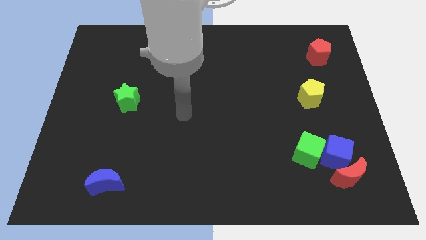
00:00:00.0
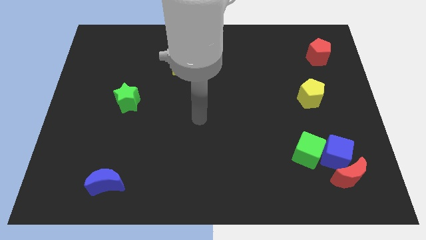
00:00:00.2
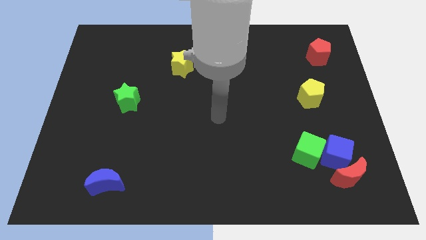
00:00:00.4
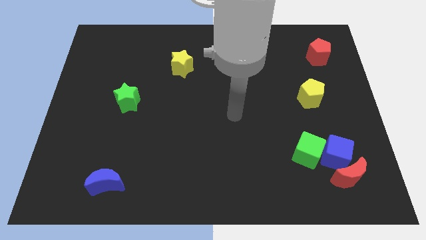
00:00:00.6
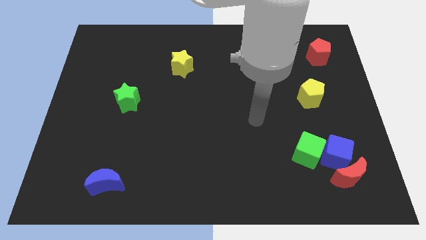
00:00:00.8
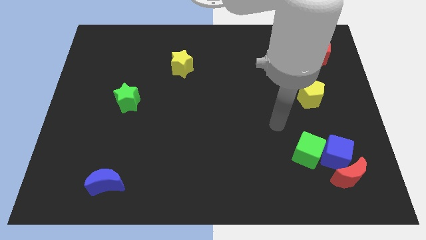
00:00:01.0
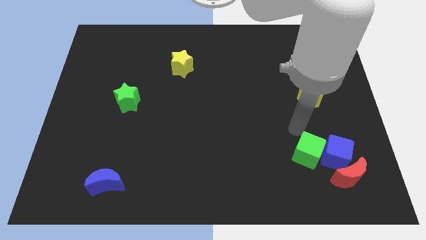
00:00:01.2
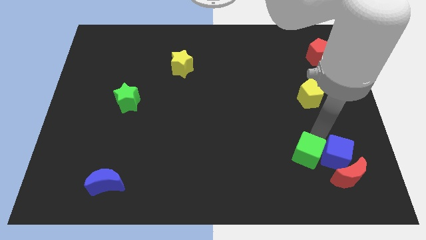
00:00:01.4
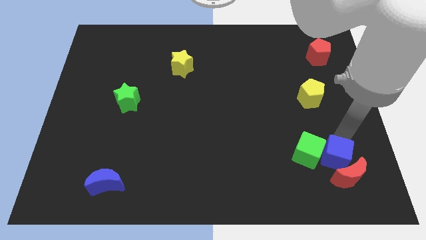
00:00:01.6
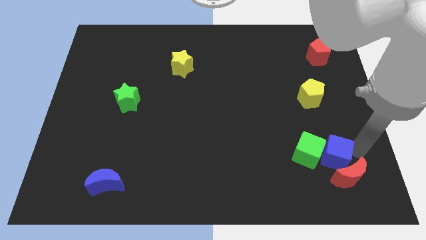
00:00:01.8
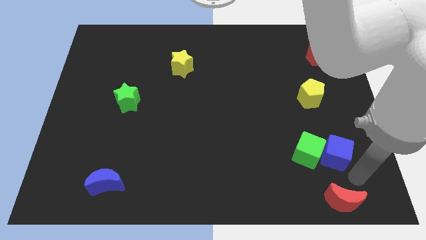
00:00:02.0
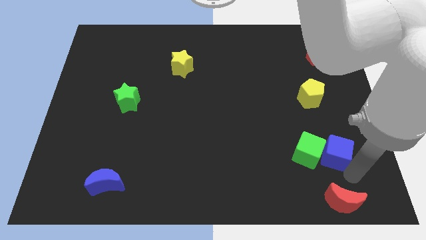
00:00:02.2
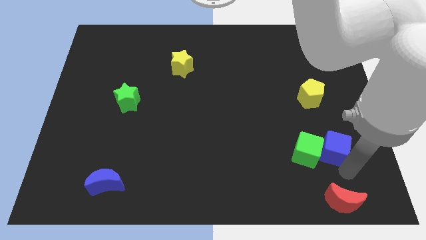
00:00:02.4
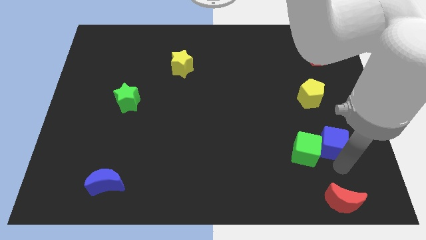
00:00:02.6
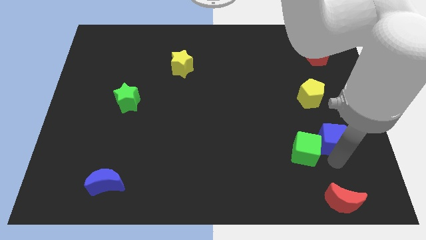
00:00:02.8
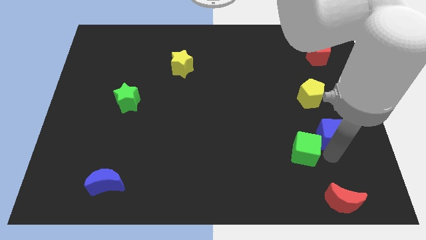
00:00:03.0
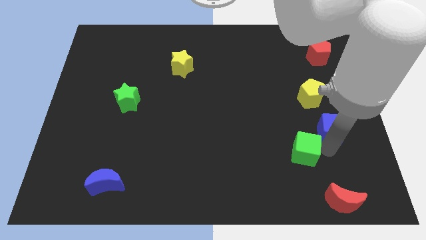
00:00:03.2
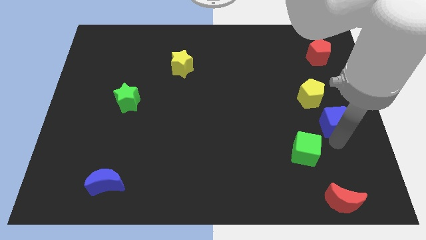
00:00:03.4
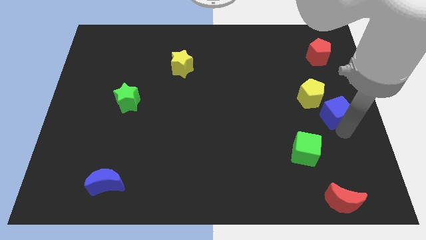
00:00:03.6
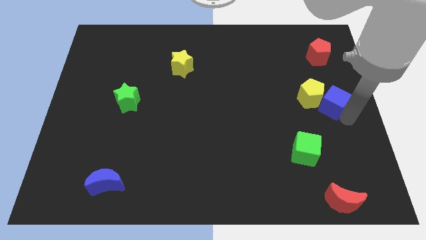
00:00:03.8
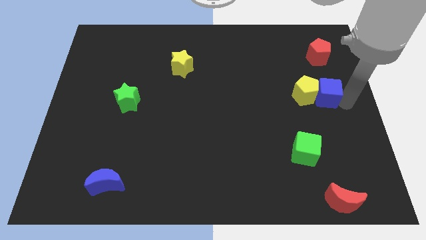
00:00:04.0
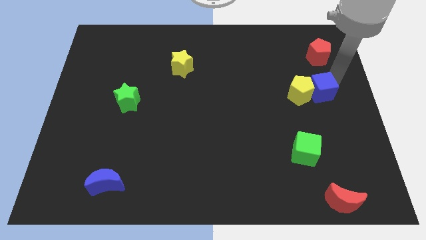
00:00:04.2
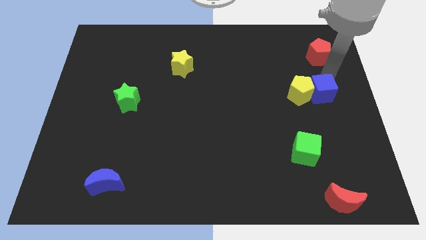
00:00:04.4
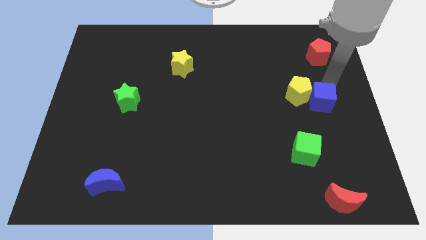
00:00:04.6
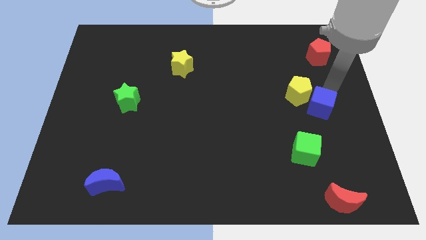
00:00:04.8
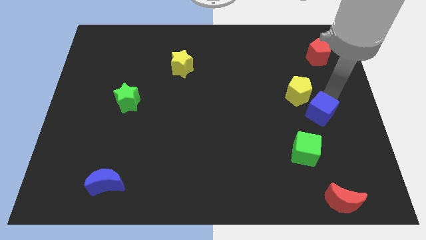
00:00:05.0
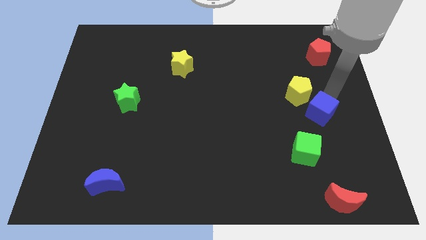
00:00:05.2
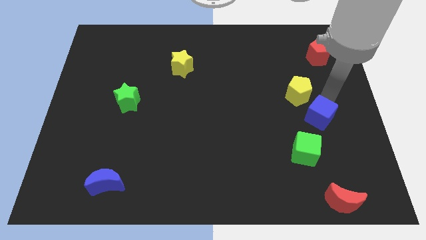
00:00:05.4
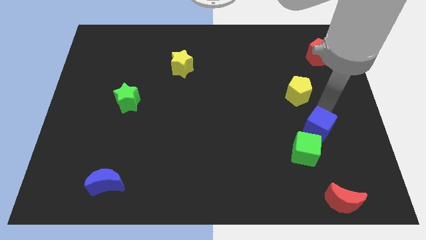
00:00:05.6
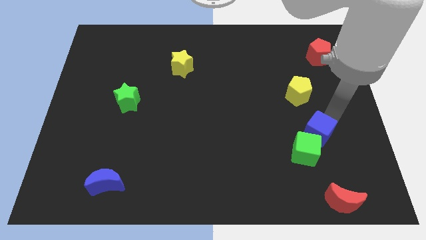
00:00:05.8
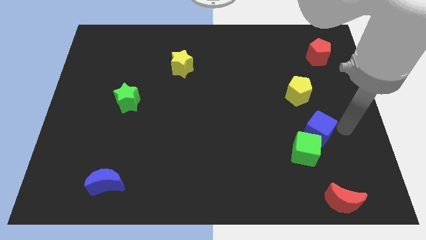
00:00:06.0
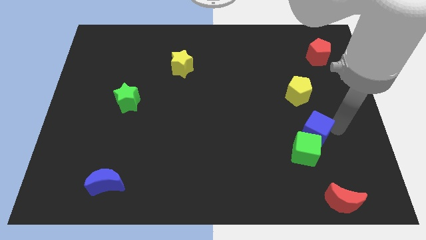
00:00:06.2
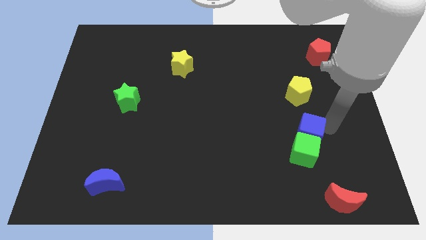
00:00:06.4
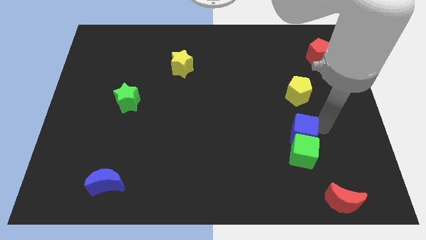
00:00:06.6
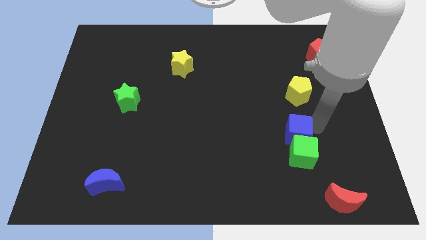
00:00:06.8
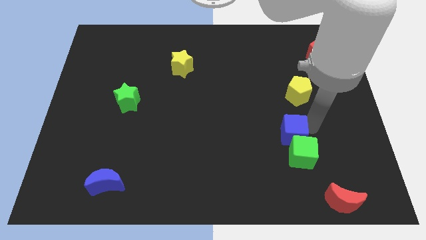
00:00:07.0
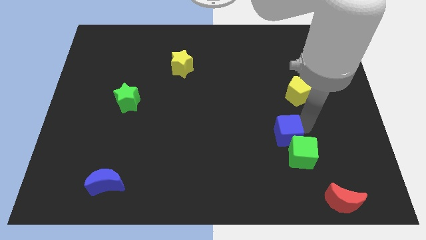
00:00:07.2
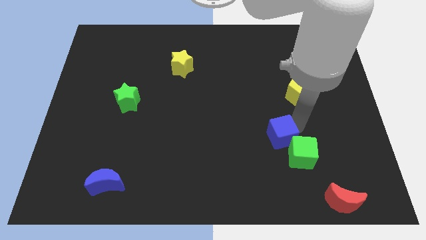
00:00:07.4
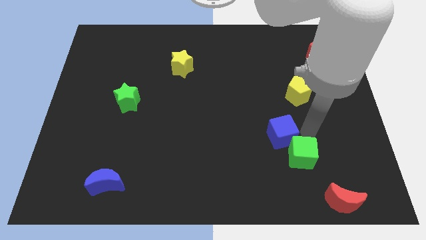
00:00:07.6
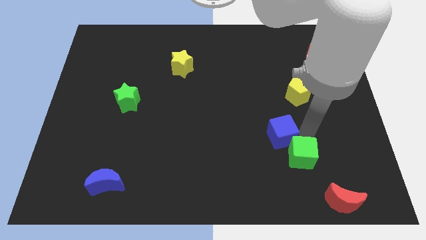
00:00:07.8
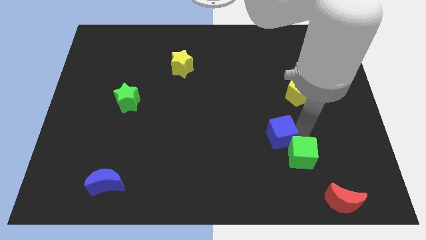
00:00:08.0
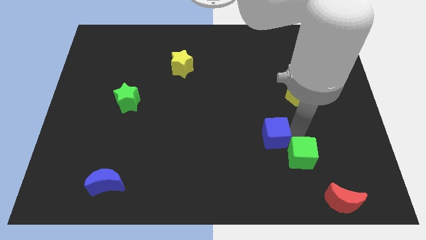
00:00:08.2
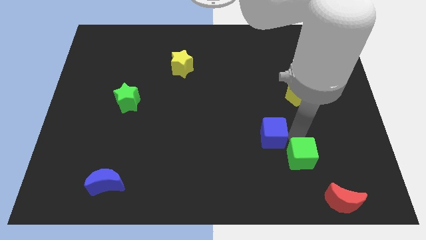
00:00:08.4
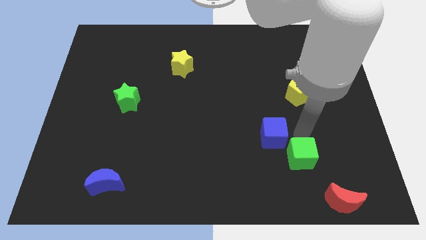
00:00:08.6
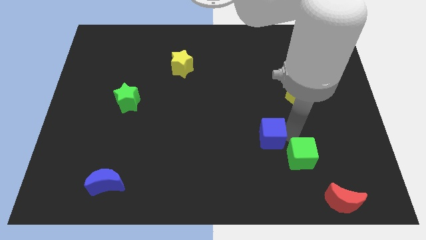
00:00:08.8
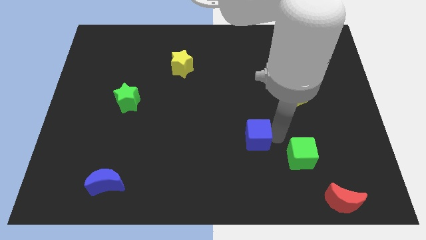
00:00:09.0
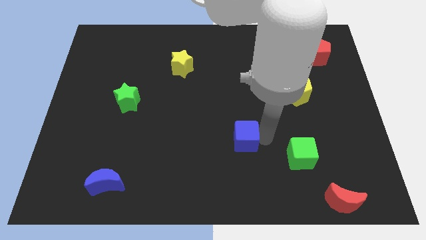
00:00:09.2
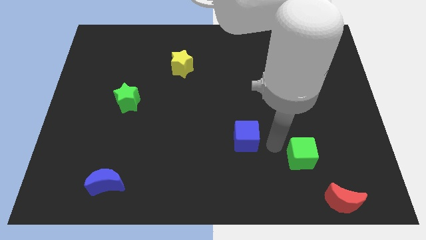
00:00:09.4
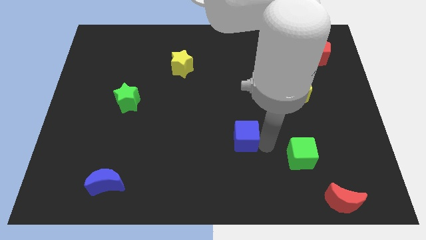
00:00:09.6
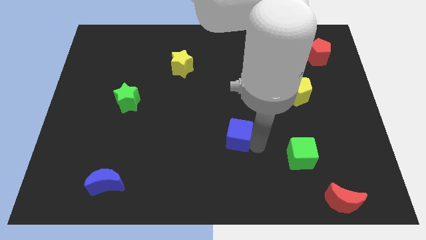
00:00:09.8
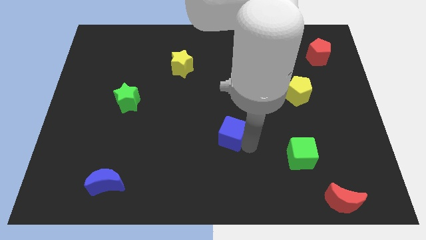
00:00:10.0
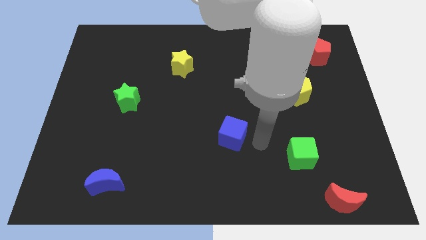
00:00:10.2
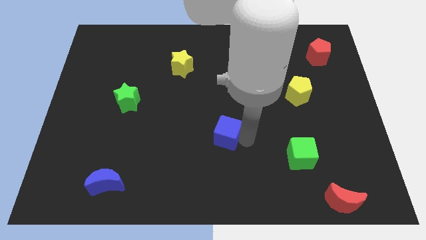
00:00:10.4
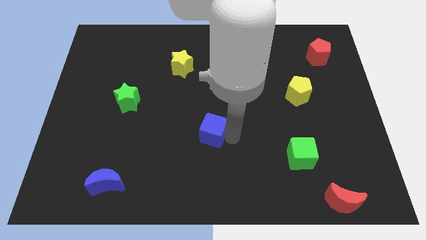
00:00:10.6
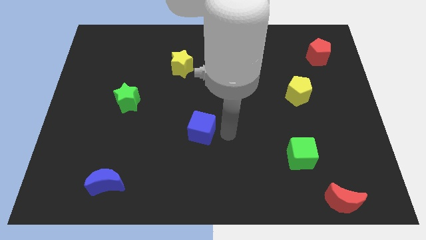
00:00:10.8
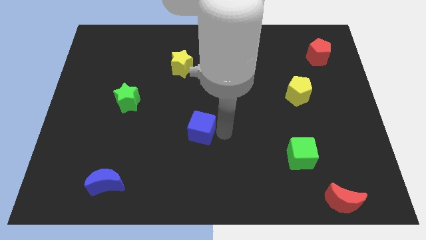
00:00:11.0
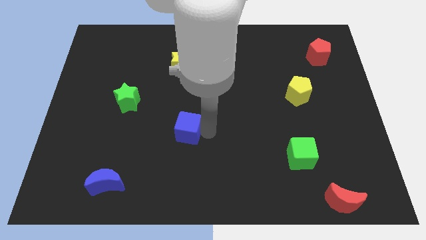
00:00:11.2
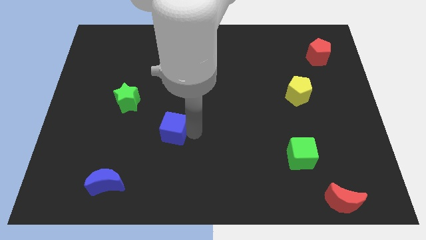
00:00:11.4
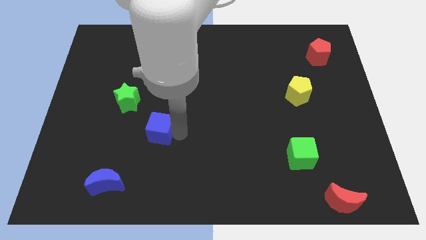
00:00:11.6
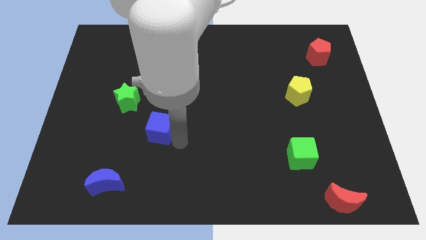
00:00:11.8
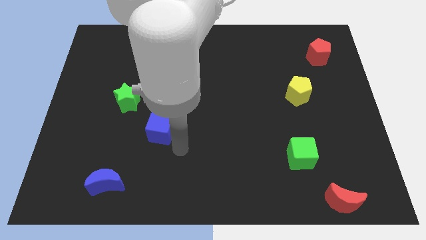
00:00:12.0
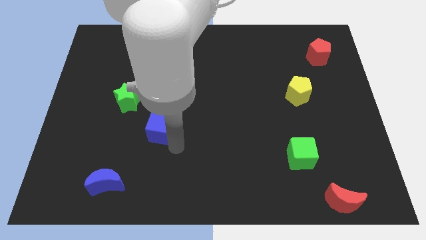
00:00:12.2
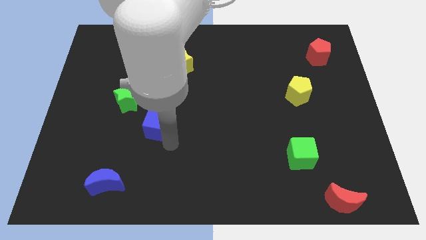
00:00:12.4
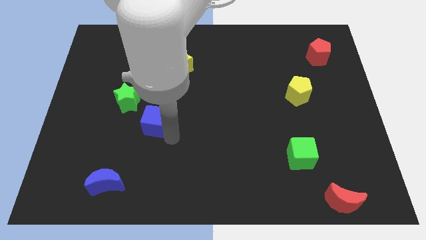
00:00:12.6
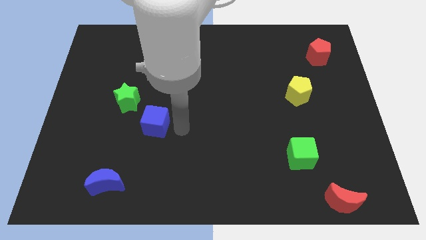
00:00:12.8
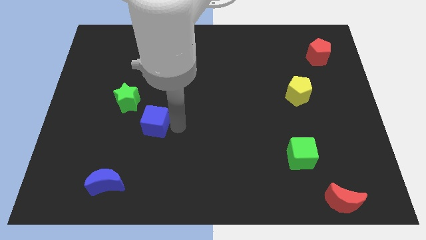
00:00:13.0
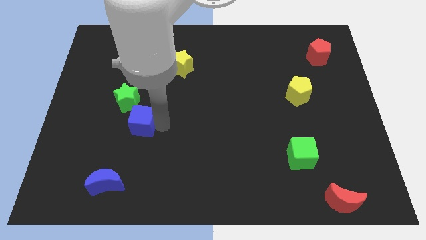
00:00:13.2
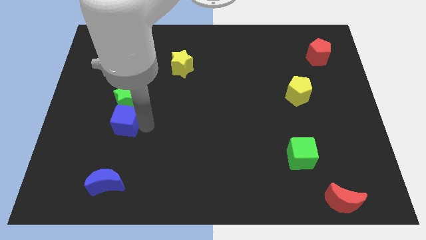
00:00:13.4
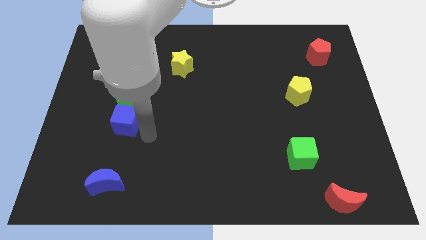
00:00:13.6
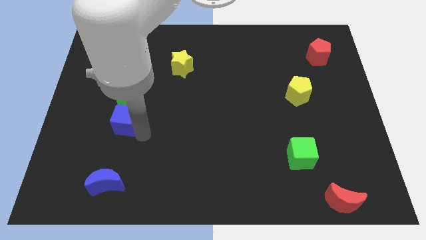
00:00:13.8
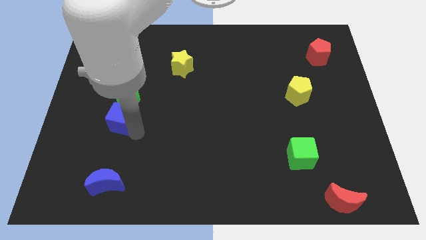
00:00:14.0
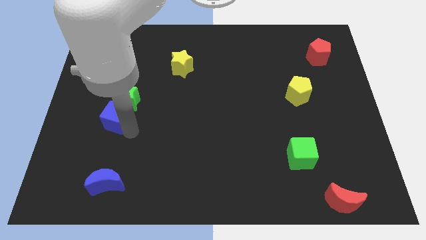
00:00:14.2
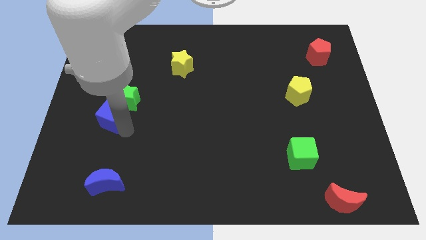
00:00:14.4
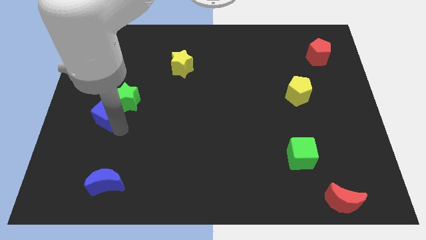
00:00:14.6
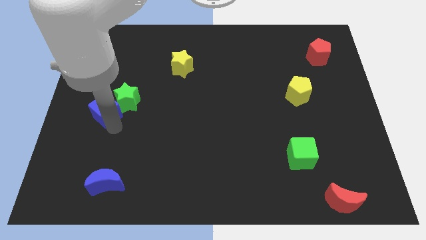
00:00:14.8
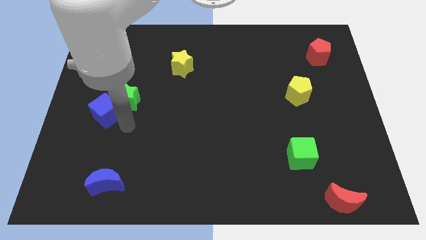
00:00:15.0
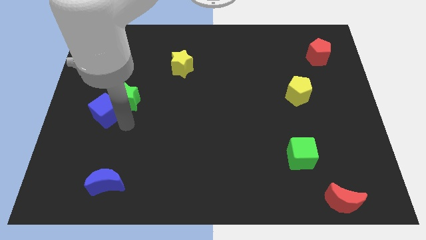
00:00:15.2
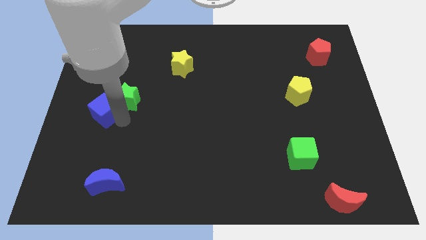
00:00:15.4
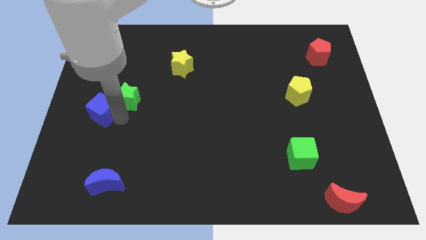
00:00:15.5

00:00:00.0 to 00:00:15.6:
slide the blue cube to the center left
